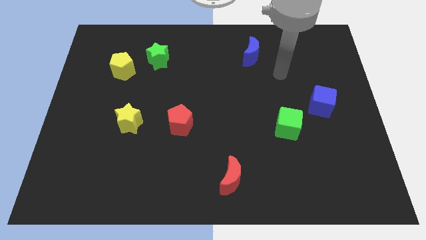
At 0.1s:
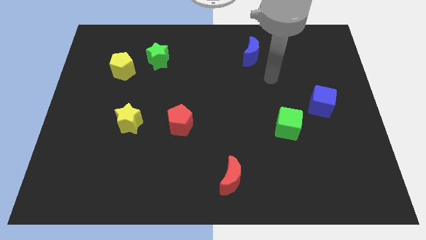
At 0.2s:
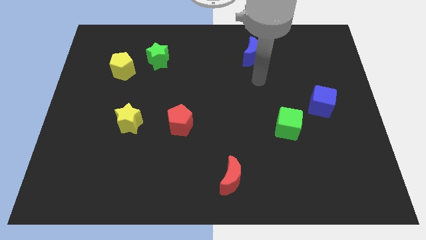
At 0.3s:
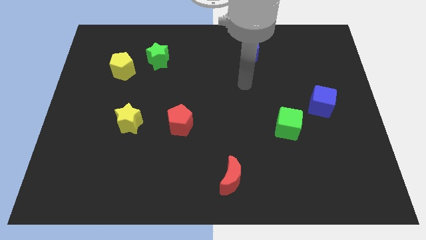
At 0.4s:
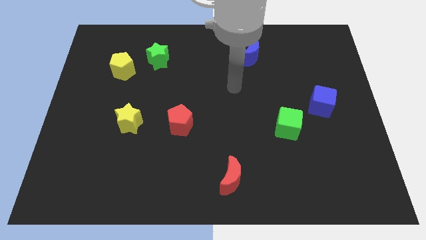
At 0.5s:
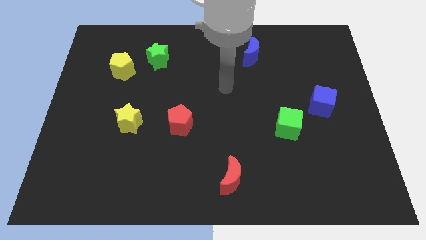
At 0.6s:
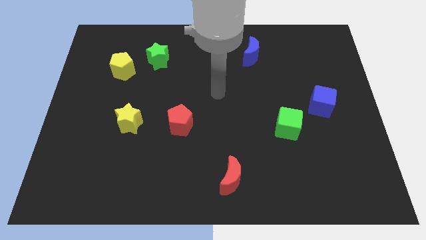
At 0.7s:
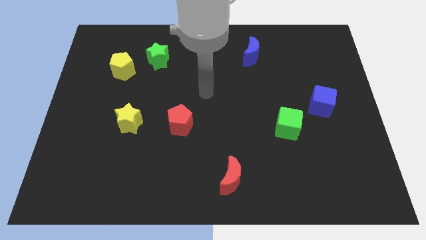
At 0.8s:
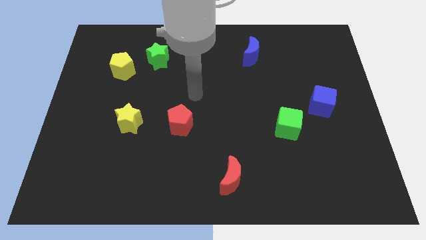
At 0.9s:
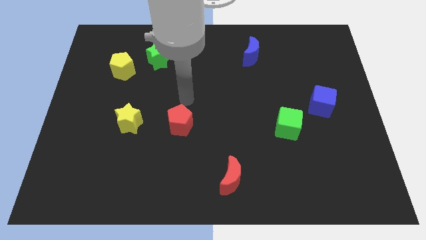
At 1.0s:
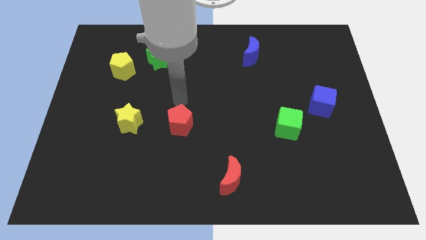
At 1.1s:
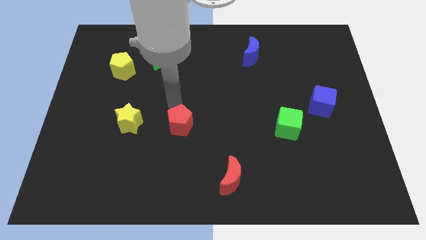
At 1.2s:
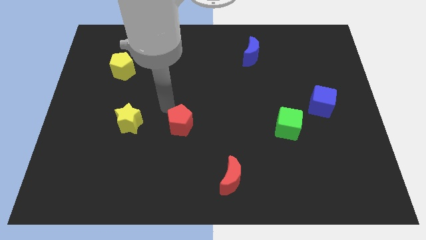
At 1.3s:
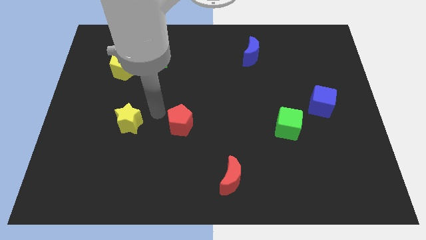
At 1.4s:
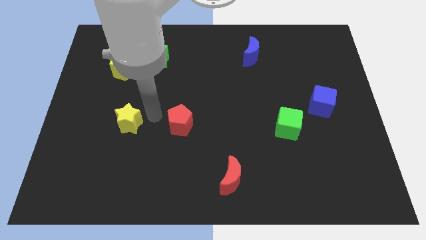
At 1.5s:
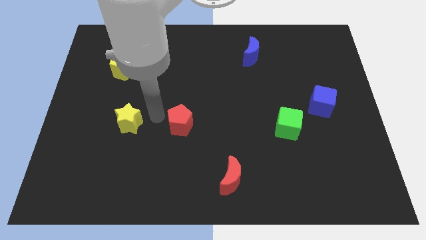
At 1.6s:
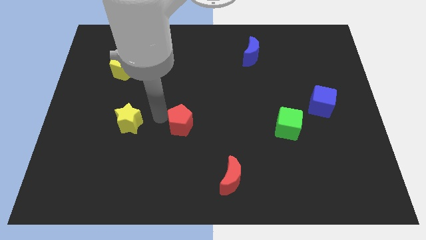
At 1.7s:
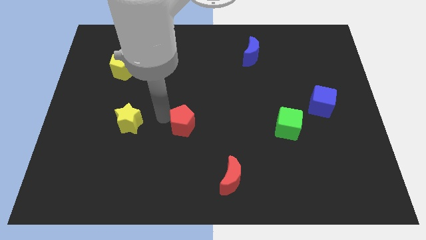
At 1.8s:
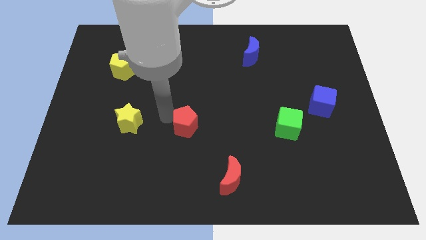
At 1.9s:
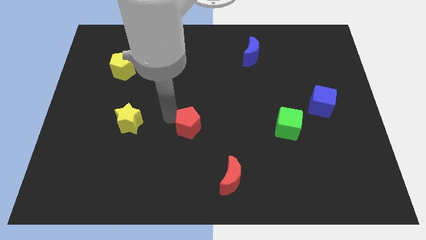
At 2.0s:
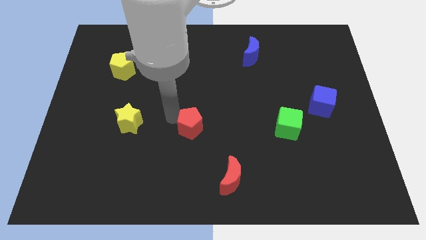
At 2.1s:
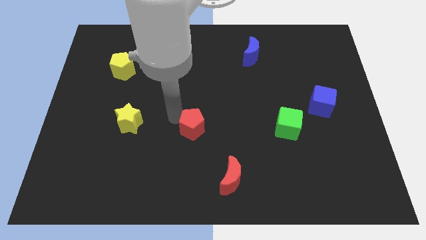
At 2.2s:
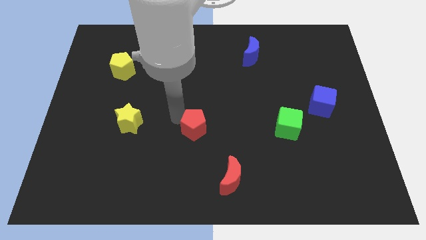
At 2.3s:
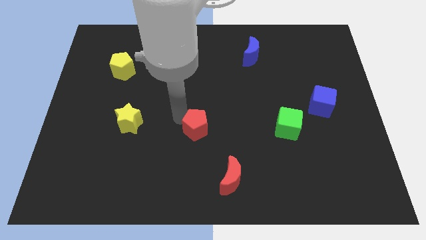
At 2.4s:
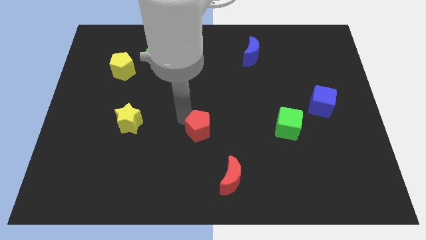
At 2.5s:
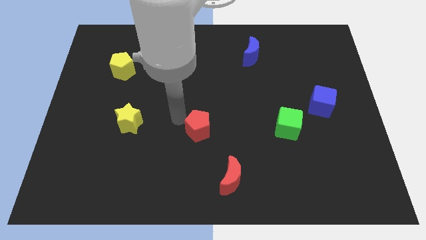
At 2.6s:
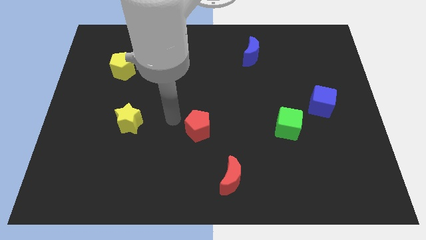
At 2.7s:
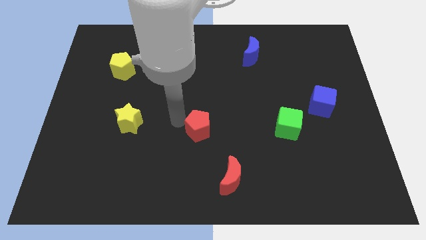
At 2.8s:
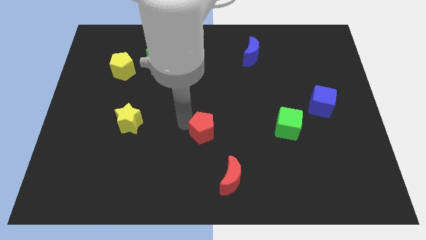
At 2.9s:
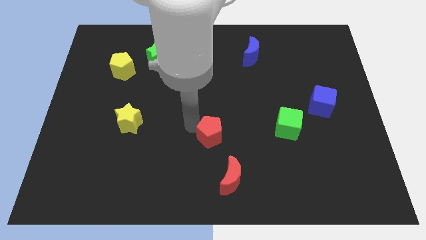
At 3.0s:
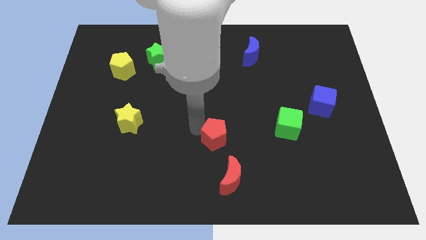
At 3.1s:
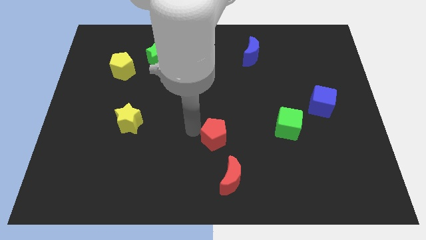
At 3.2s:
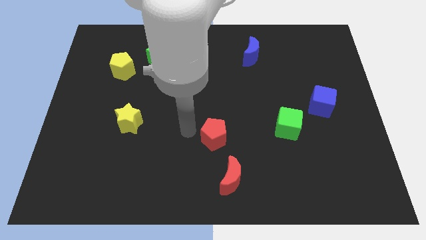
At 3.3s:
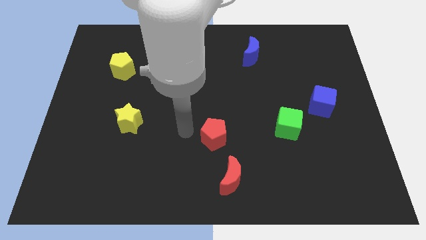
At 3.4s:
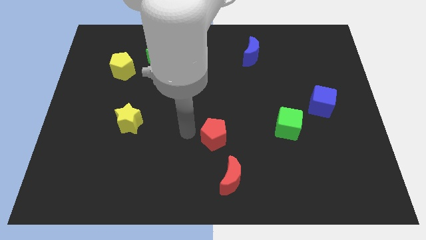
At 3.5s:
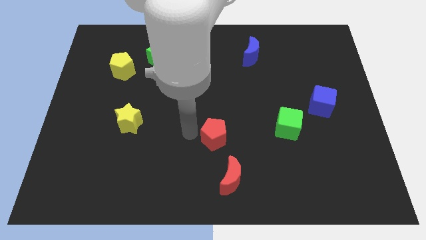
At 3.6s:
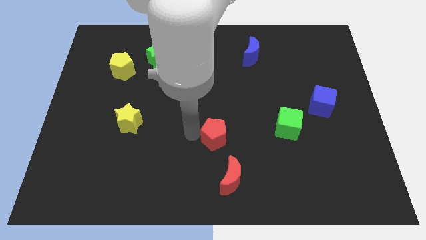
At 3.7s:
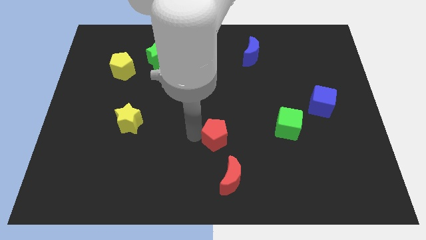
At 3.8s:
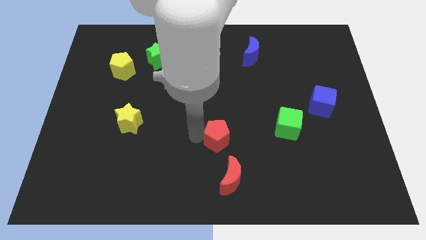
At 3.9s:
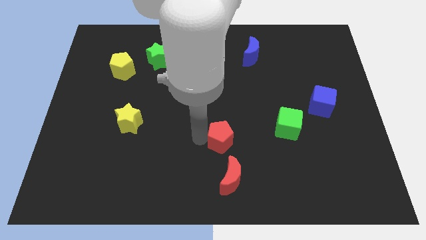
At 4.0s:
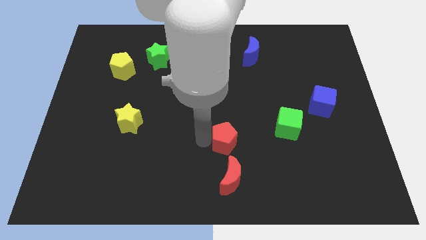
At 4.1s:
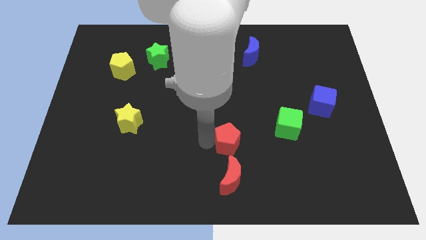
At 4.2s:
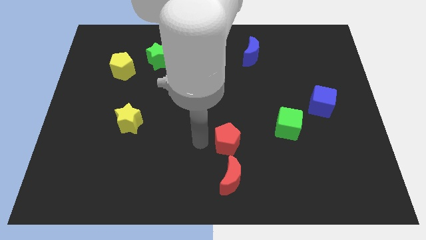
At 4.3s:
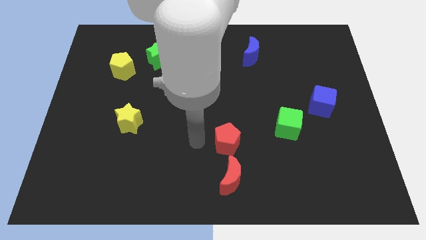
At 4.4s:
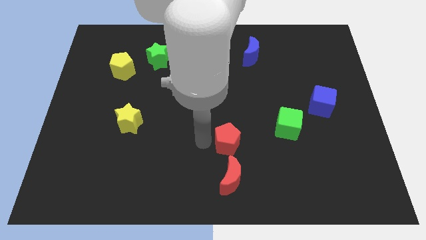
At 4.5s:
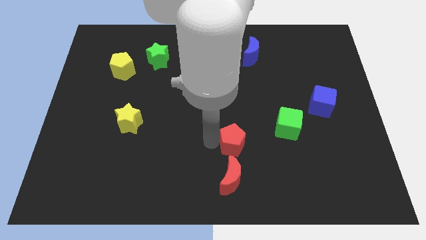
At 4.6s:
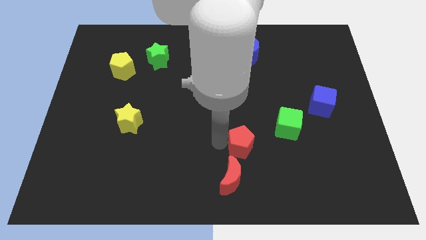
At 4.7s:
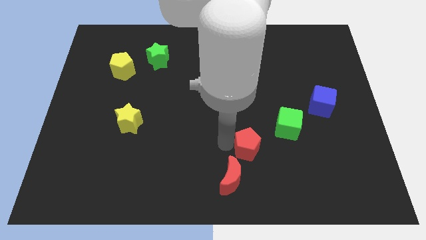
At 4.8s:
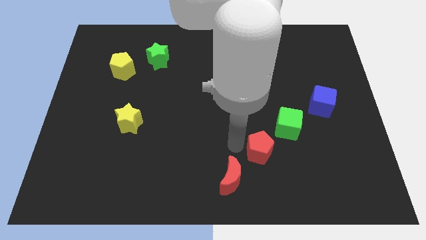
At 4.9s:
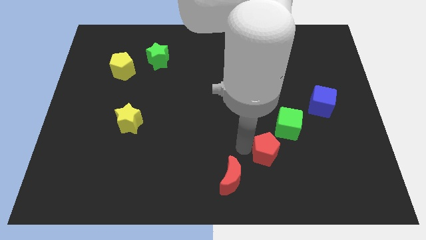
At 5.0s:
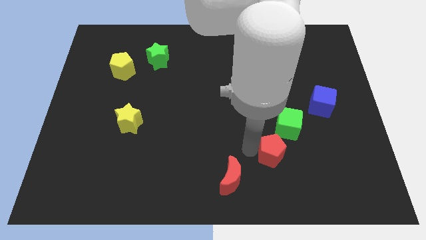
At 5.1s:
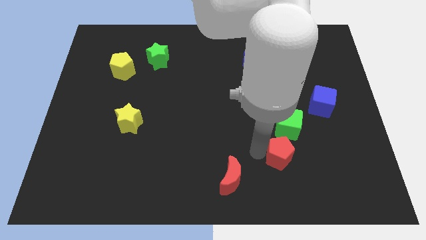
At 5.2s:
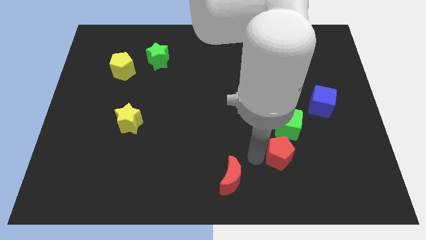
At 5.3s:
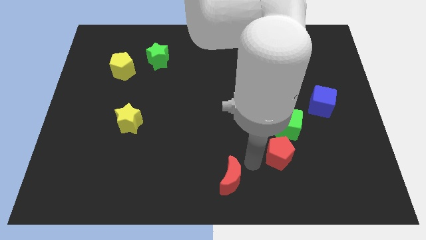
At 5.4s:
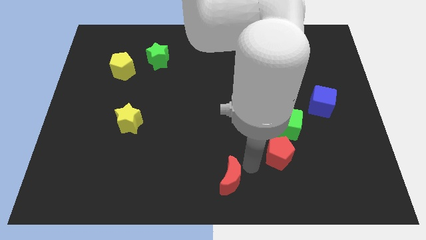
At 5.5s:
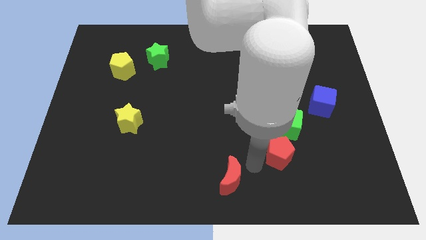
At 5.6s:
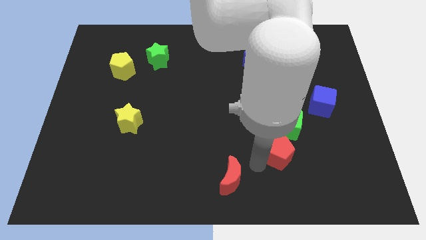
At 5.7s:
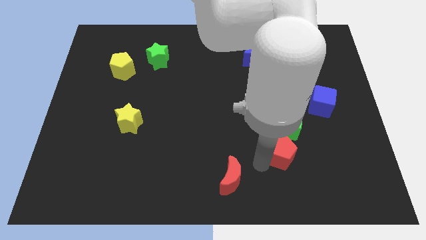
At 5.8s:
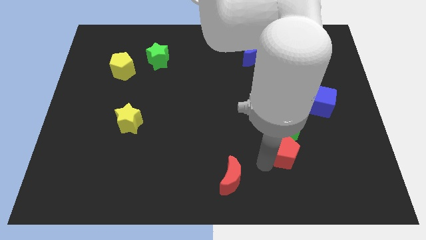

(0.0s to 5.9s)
slide the red pentagon right

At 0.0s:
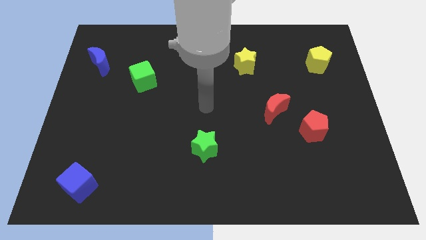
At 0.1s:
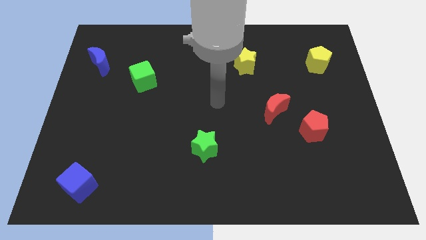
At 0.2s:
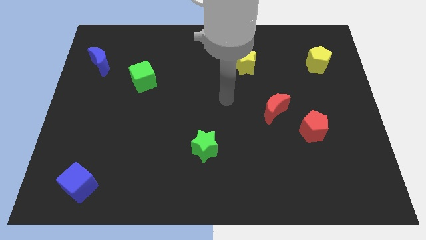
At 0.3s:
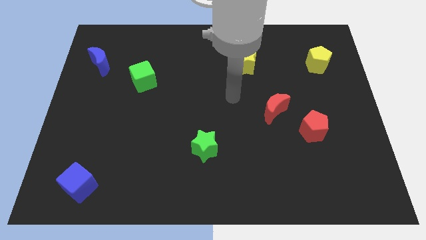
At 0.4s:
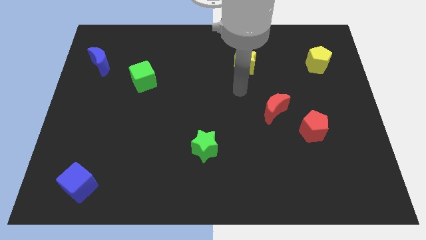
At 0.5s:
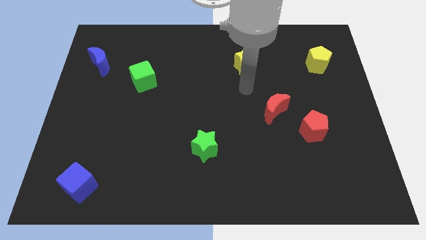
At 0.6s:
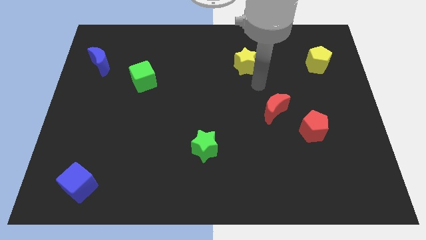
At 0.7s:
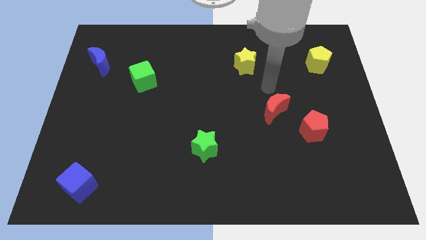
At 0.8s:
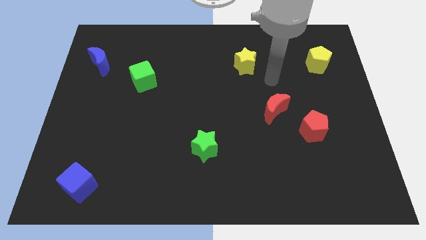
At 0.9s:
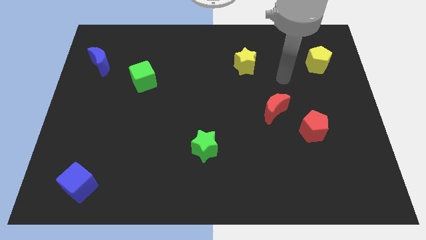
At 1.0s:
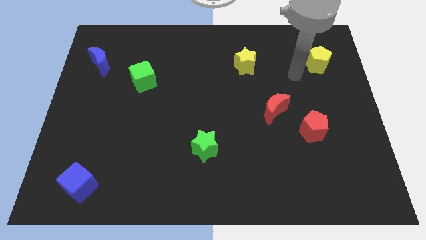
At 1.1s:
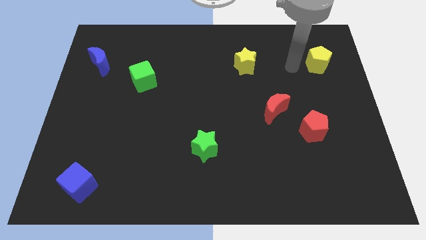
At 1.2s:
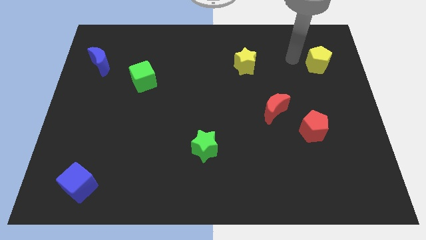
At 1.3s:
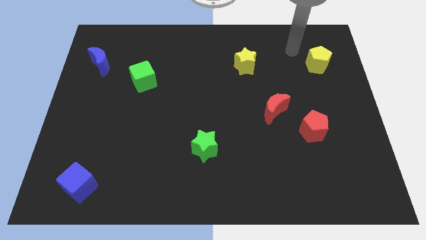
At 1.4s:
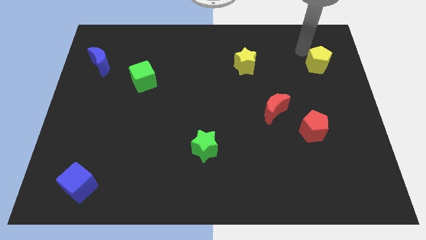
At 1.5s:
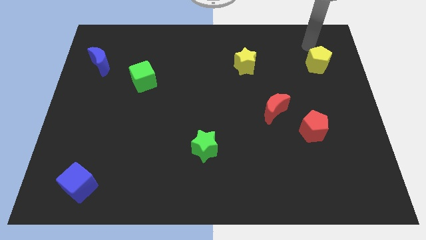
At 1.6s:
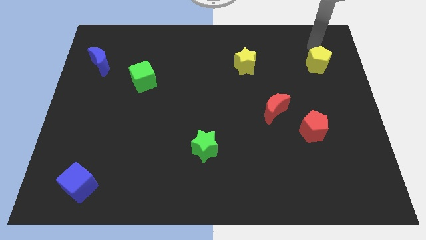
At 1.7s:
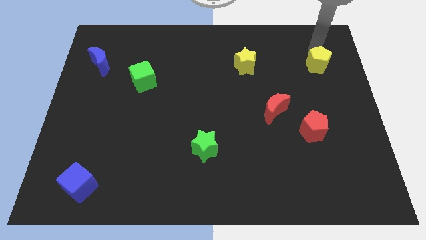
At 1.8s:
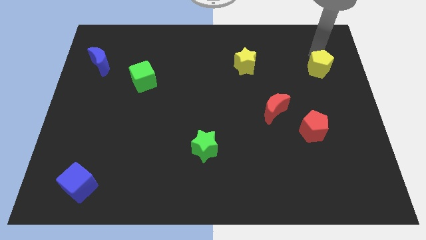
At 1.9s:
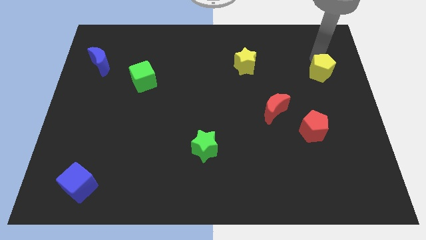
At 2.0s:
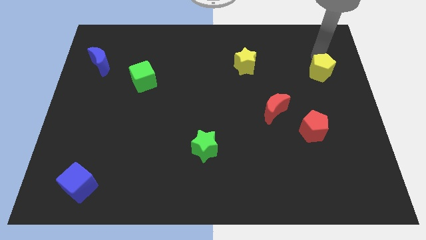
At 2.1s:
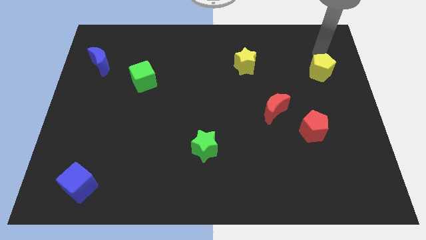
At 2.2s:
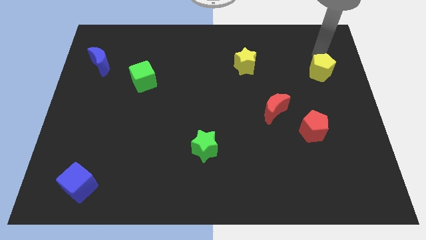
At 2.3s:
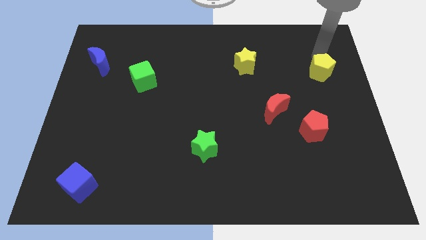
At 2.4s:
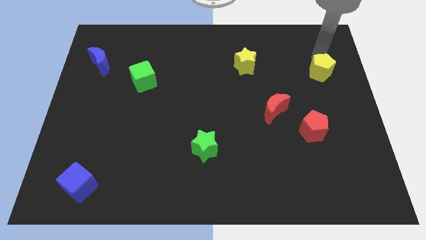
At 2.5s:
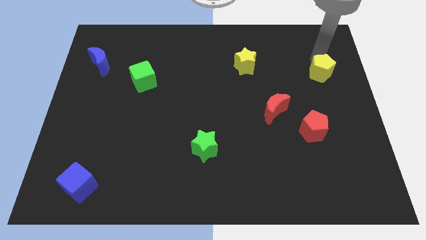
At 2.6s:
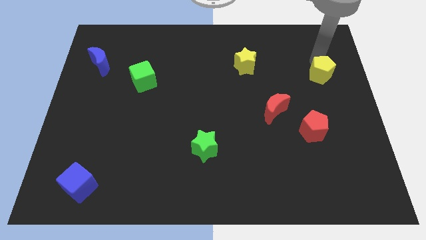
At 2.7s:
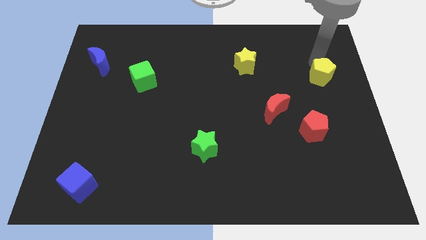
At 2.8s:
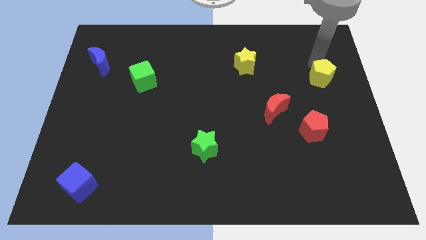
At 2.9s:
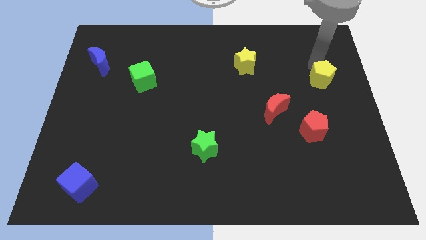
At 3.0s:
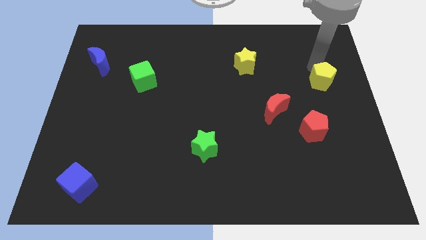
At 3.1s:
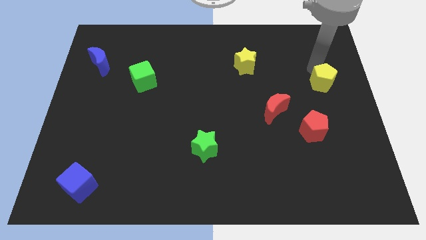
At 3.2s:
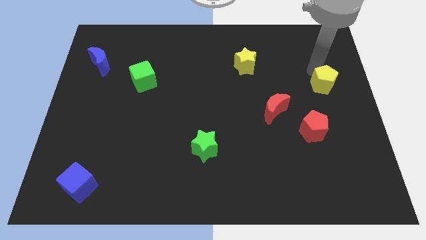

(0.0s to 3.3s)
slide the yellow pentagon slightly down
